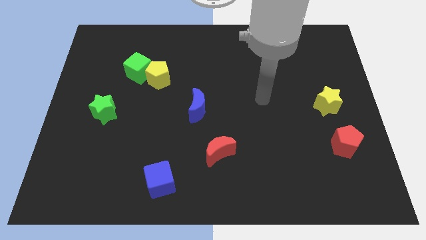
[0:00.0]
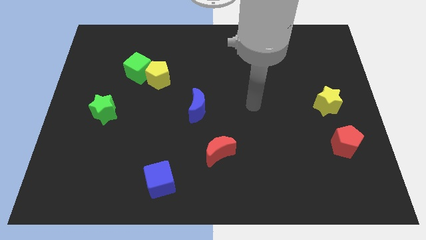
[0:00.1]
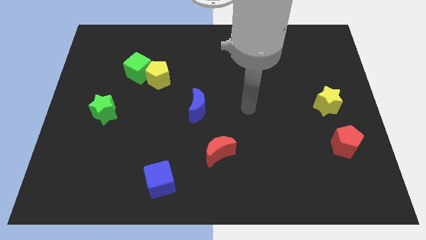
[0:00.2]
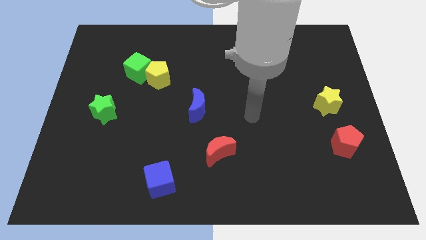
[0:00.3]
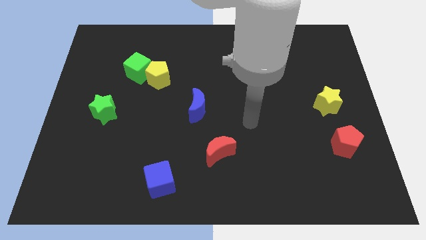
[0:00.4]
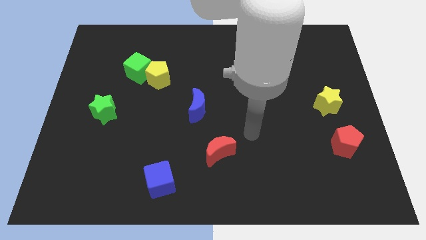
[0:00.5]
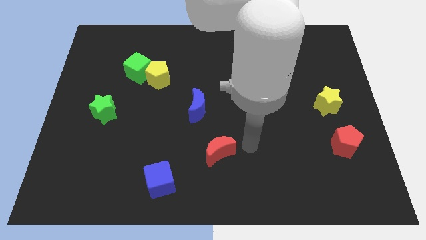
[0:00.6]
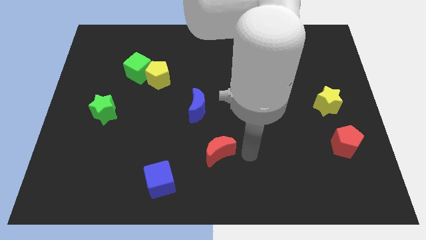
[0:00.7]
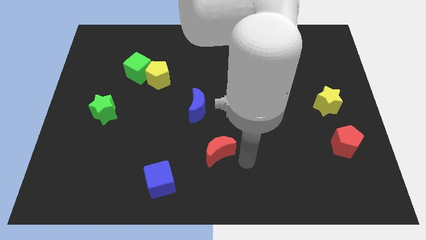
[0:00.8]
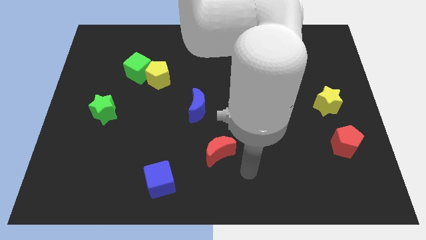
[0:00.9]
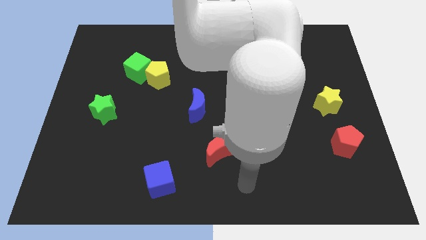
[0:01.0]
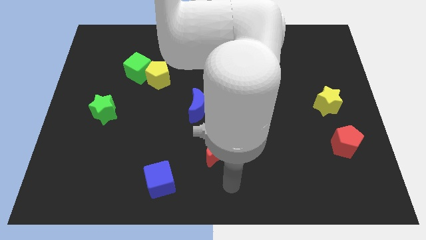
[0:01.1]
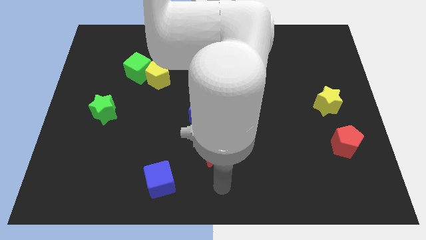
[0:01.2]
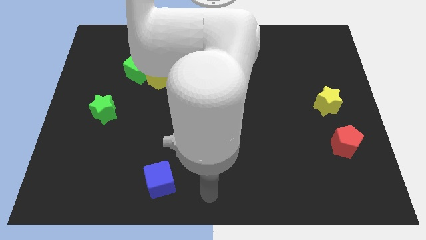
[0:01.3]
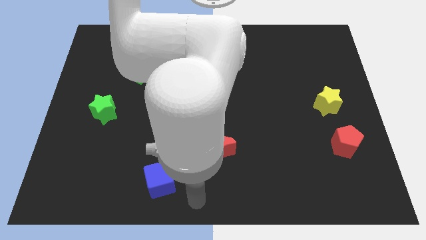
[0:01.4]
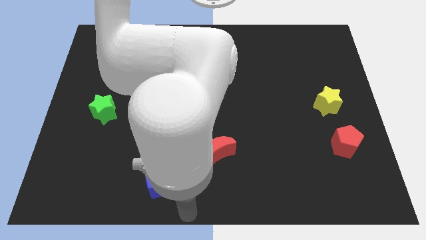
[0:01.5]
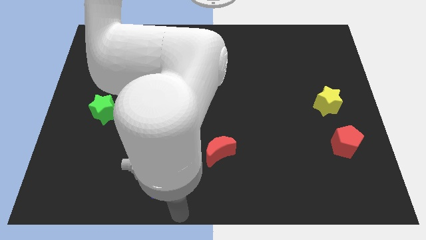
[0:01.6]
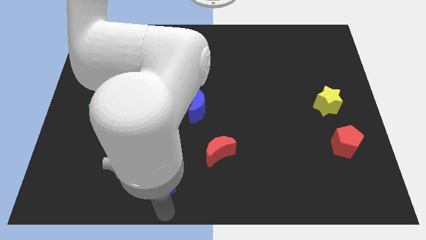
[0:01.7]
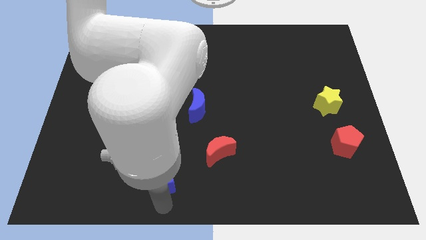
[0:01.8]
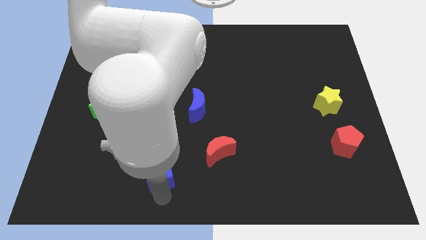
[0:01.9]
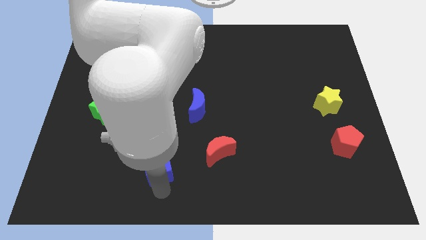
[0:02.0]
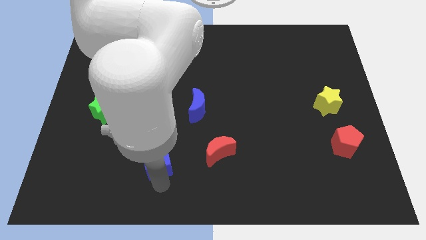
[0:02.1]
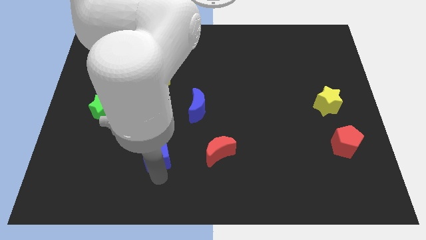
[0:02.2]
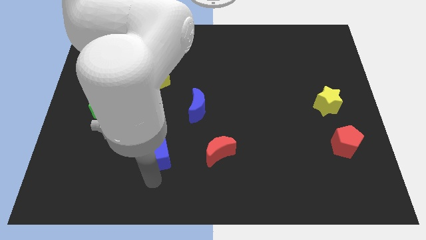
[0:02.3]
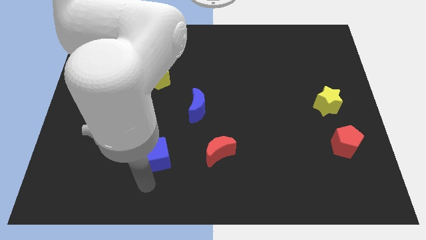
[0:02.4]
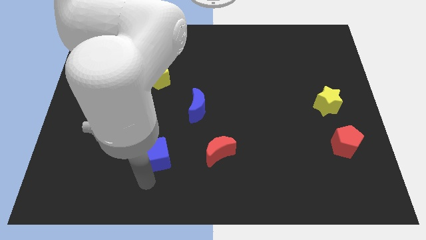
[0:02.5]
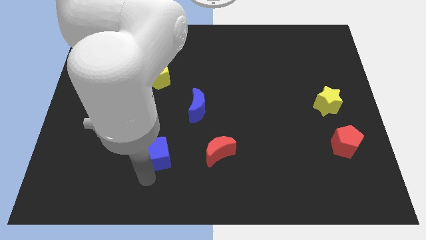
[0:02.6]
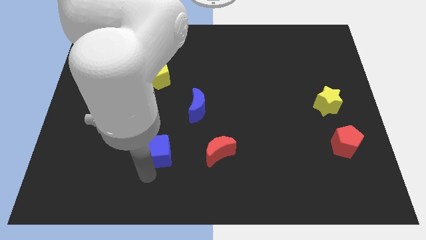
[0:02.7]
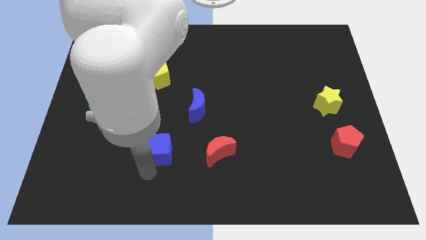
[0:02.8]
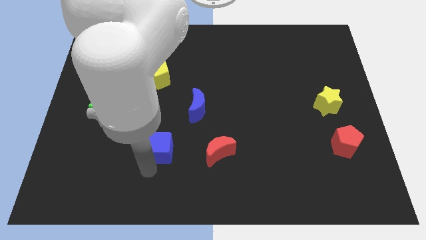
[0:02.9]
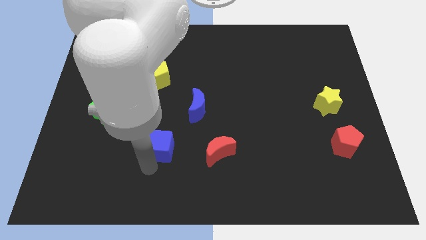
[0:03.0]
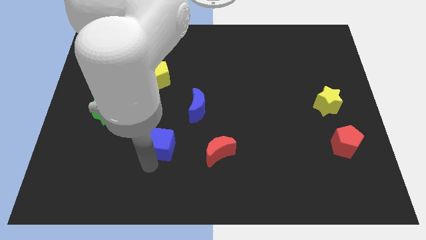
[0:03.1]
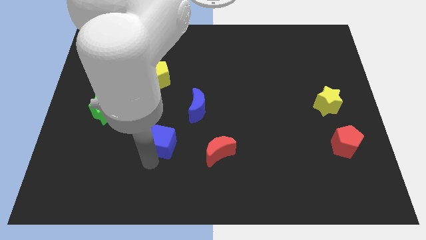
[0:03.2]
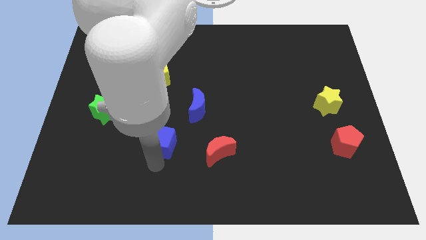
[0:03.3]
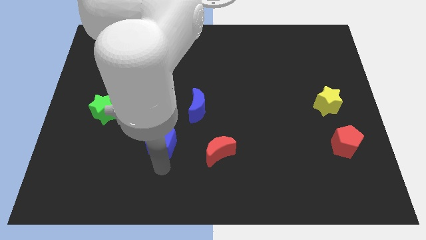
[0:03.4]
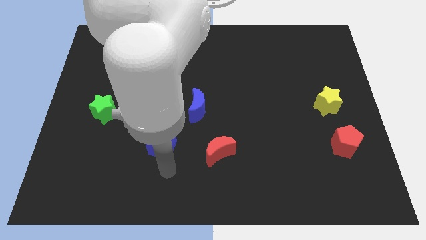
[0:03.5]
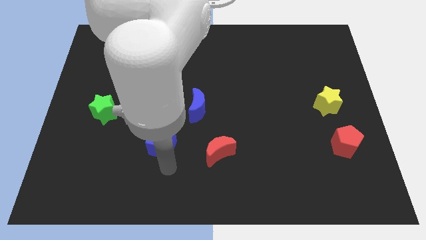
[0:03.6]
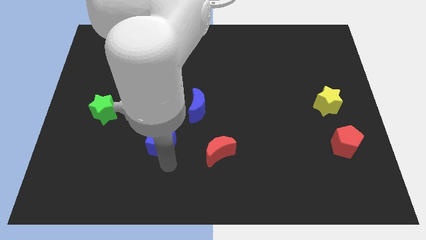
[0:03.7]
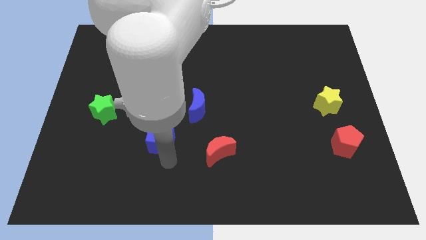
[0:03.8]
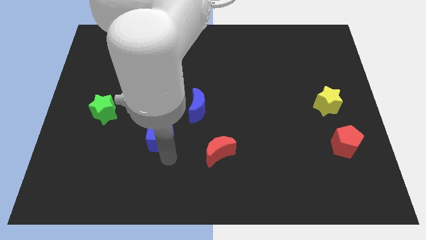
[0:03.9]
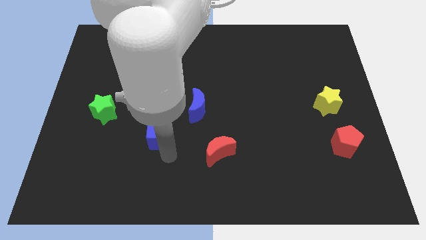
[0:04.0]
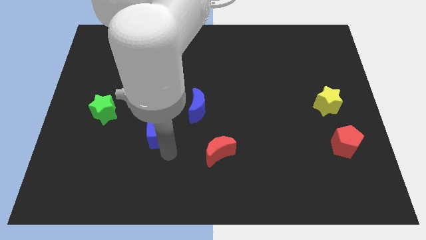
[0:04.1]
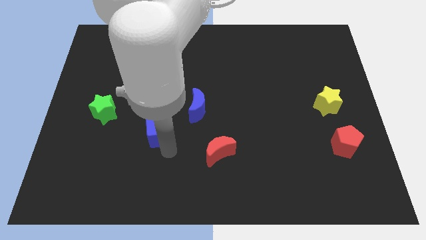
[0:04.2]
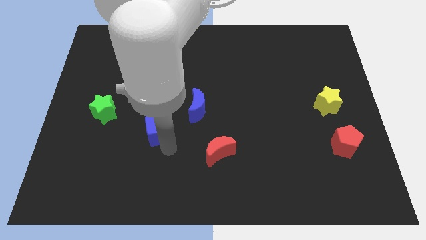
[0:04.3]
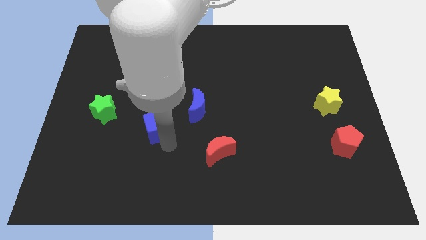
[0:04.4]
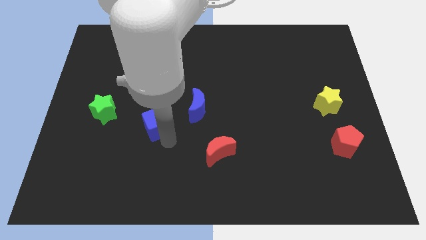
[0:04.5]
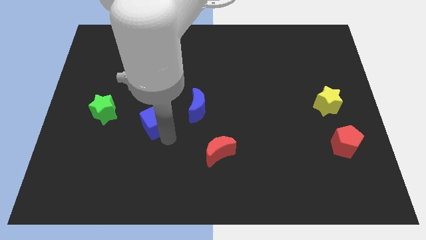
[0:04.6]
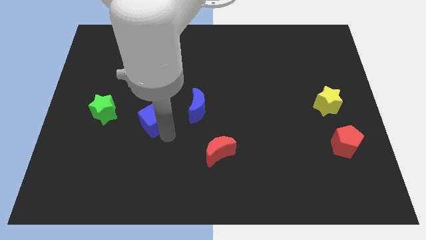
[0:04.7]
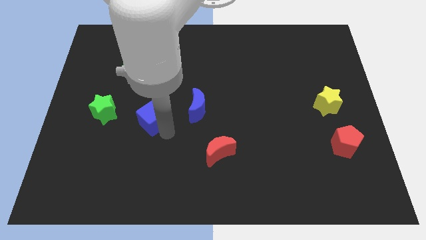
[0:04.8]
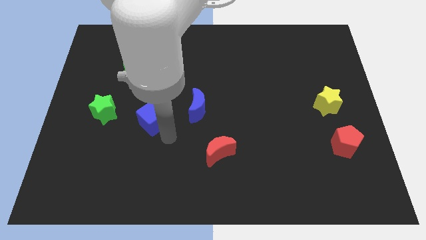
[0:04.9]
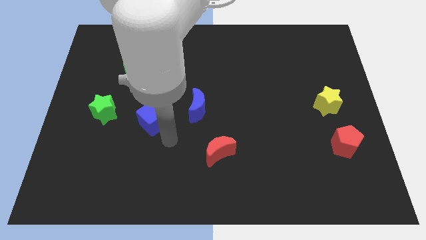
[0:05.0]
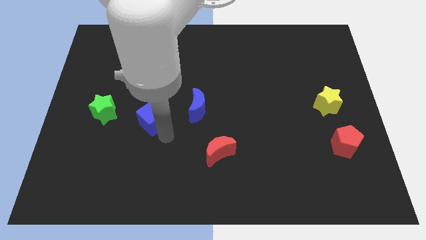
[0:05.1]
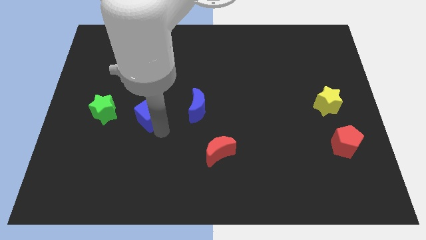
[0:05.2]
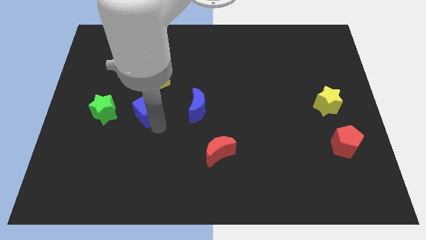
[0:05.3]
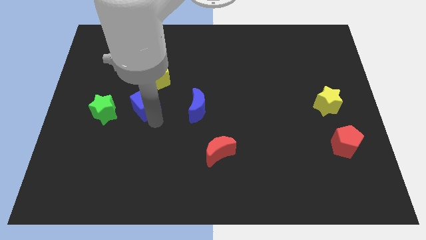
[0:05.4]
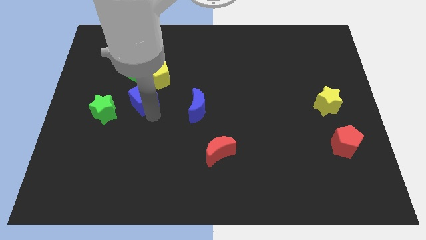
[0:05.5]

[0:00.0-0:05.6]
push the blue cube to the top right of the green star

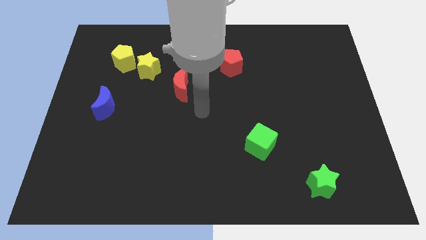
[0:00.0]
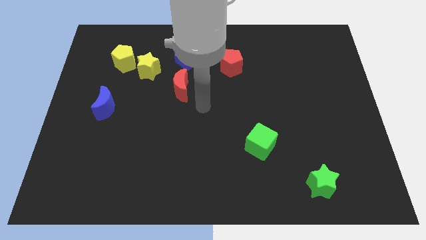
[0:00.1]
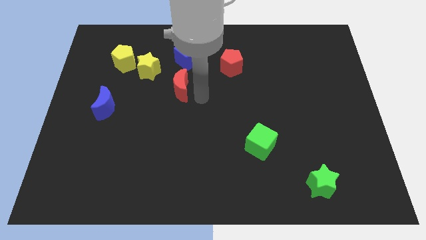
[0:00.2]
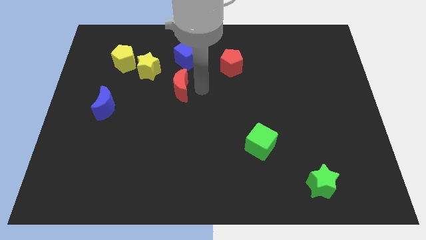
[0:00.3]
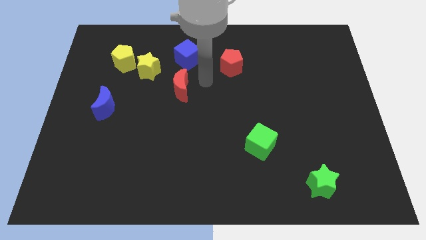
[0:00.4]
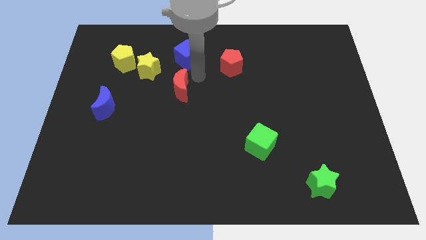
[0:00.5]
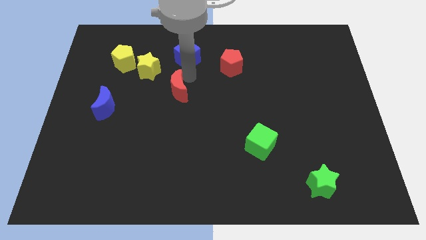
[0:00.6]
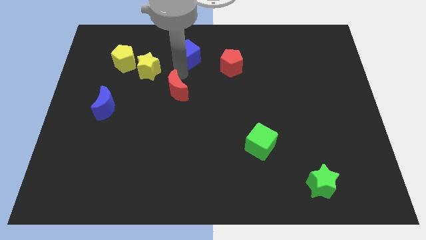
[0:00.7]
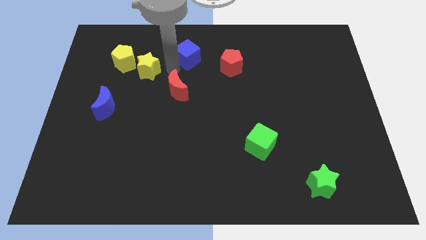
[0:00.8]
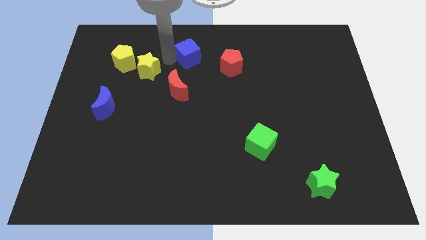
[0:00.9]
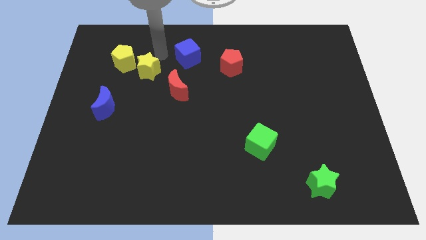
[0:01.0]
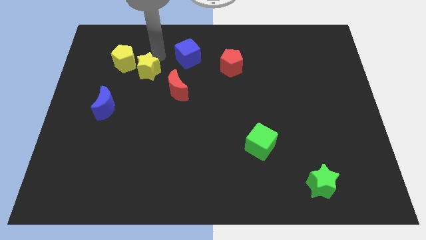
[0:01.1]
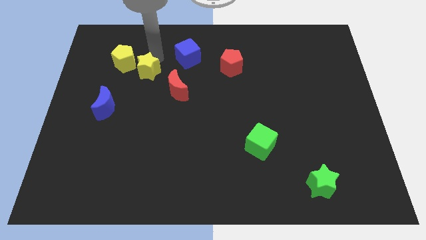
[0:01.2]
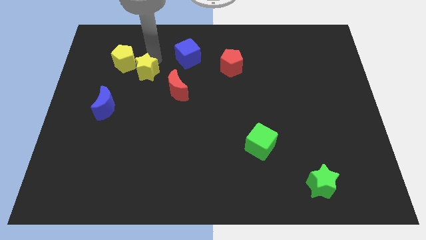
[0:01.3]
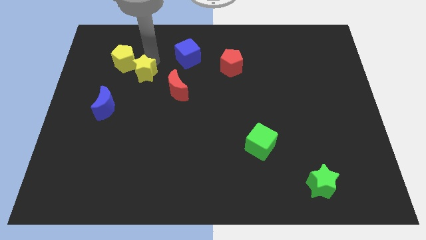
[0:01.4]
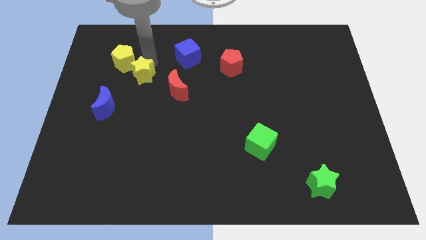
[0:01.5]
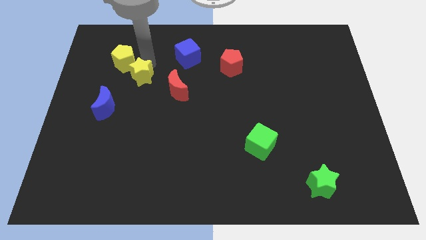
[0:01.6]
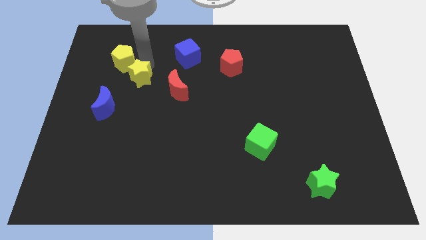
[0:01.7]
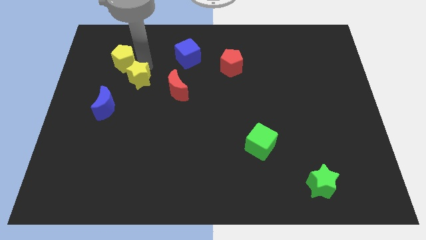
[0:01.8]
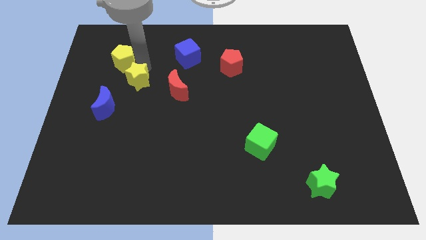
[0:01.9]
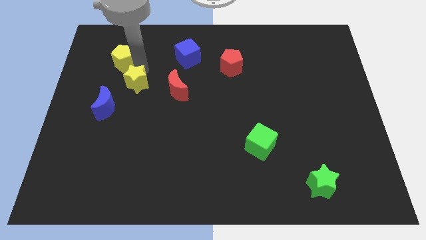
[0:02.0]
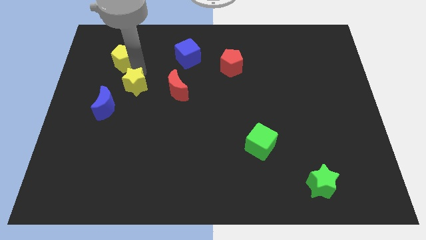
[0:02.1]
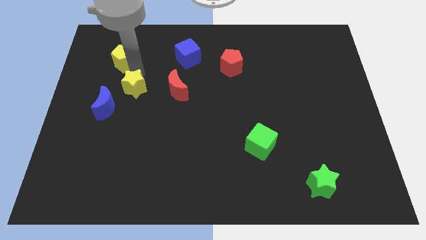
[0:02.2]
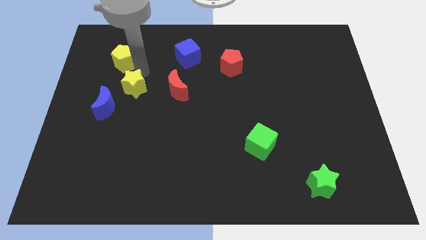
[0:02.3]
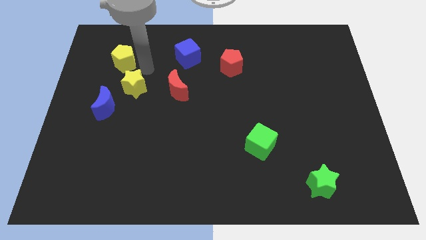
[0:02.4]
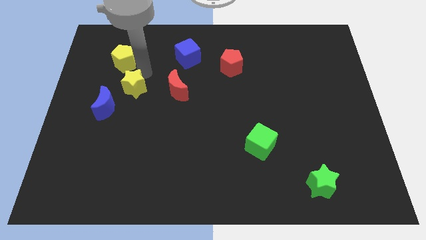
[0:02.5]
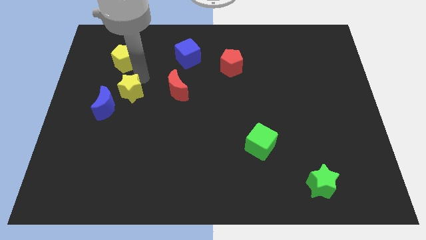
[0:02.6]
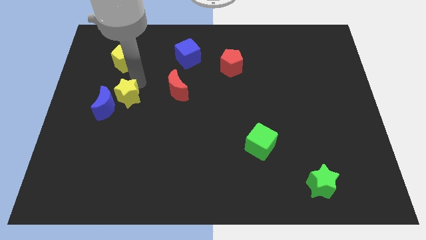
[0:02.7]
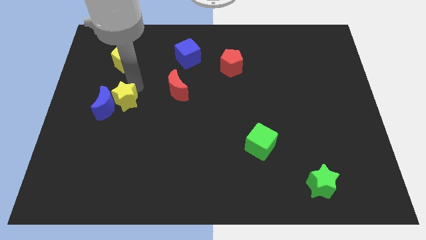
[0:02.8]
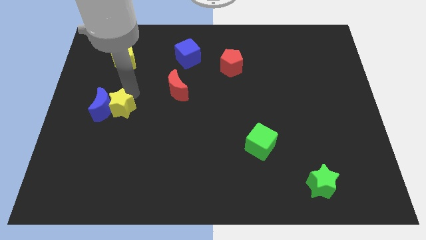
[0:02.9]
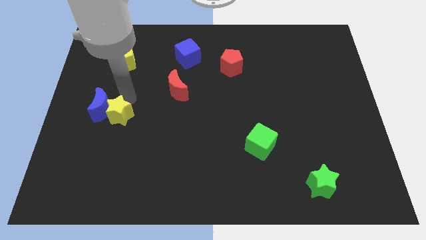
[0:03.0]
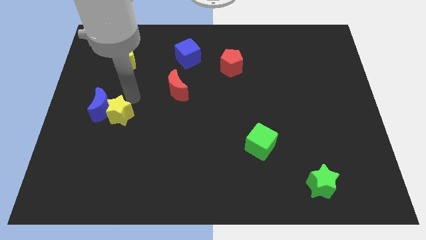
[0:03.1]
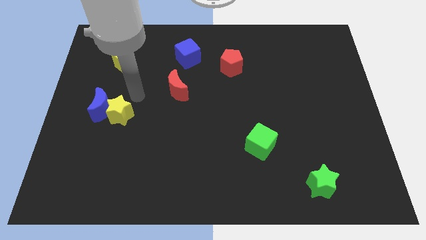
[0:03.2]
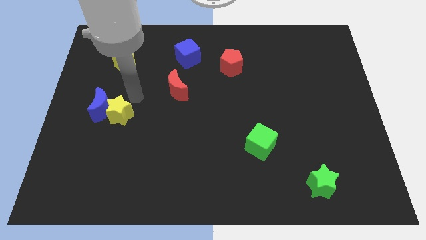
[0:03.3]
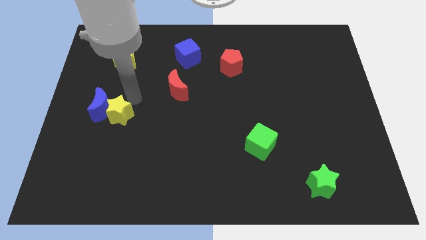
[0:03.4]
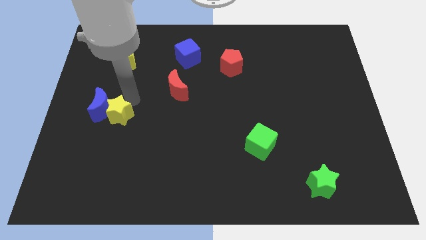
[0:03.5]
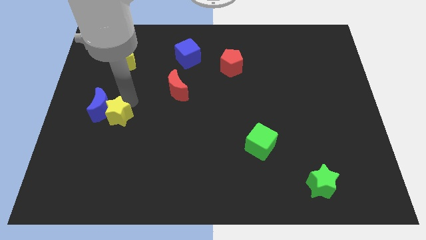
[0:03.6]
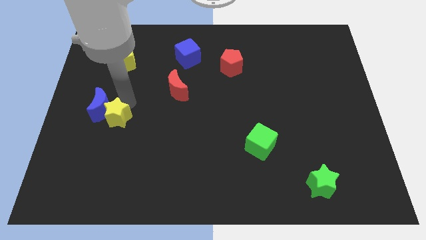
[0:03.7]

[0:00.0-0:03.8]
push the yellow star to the bottom of the blue moon
